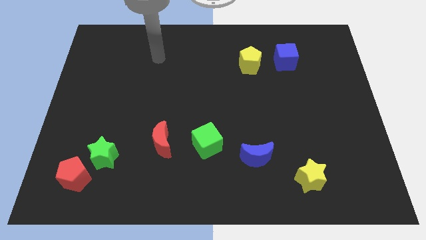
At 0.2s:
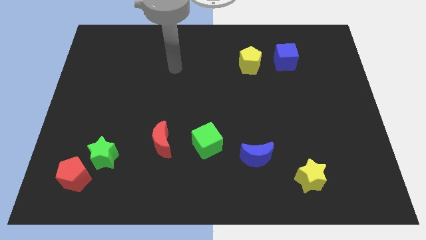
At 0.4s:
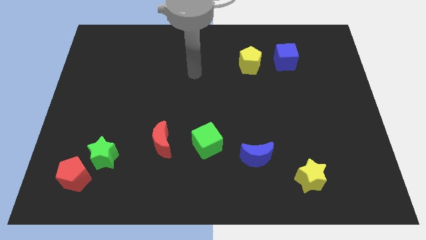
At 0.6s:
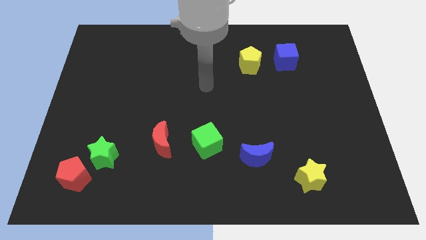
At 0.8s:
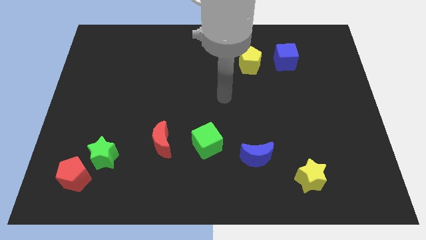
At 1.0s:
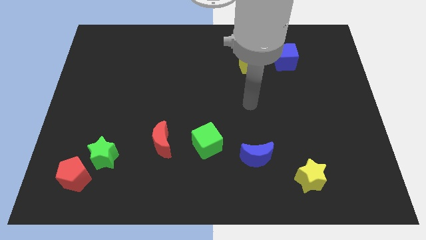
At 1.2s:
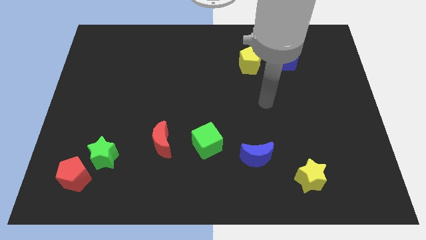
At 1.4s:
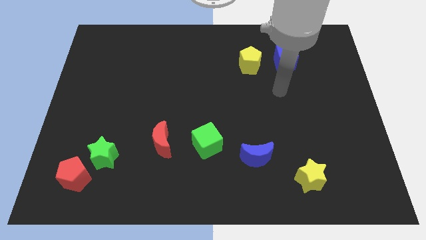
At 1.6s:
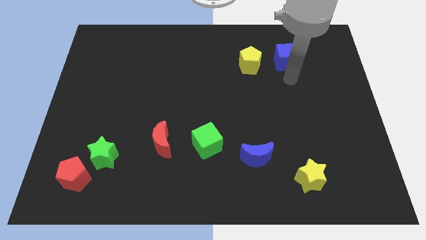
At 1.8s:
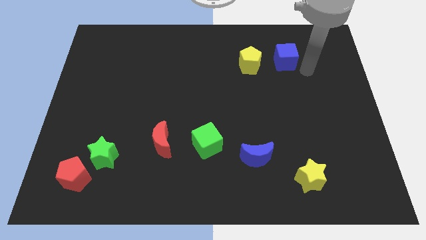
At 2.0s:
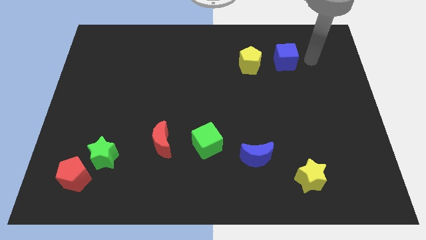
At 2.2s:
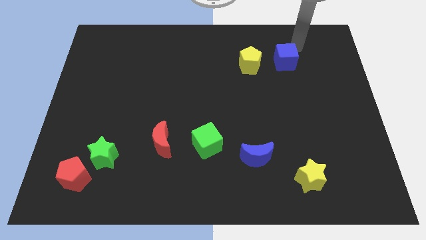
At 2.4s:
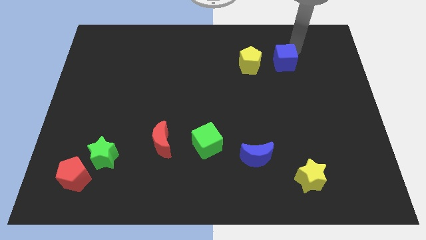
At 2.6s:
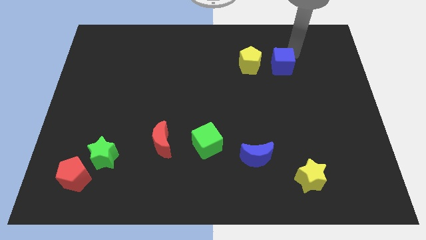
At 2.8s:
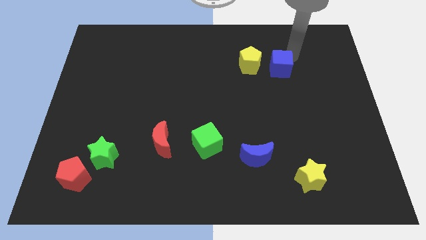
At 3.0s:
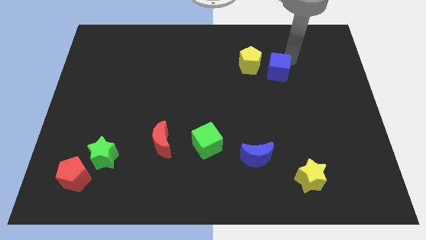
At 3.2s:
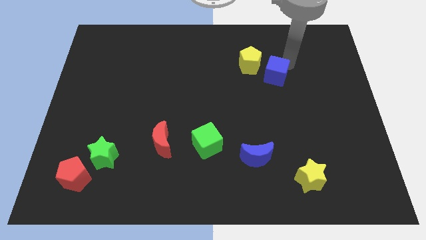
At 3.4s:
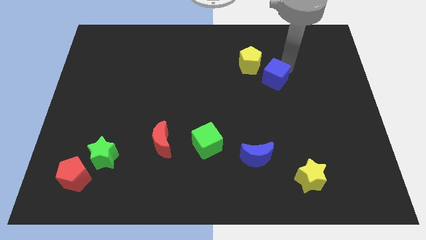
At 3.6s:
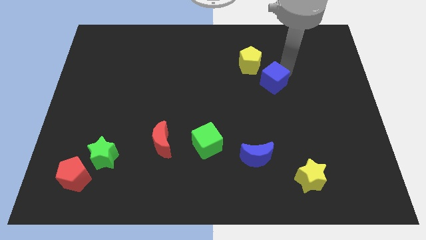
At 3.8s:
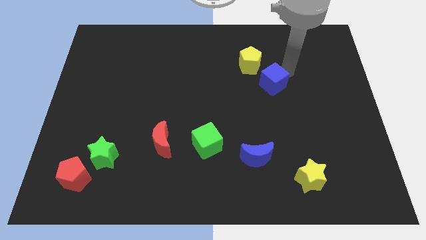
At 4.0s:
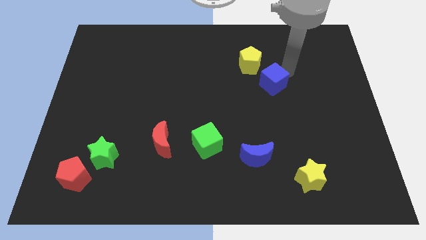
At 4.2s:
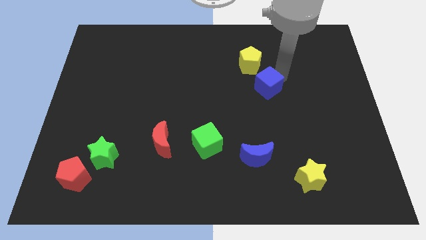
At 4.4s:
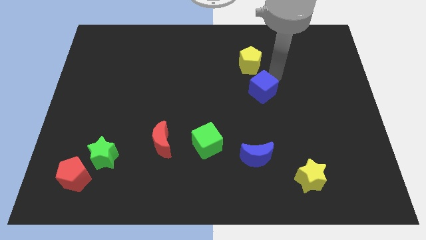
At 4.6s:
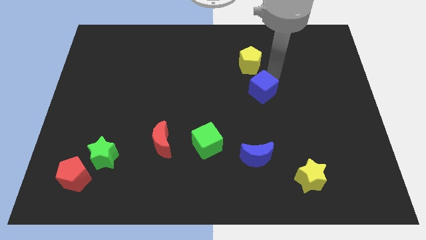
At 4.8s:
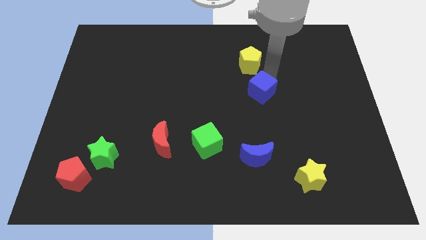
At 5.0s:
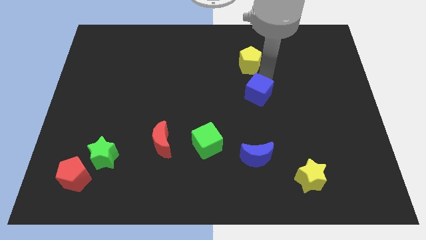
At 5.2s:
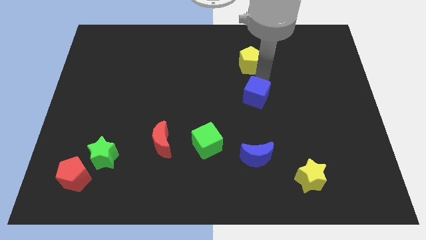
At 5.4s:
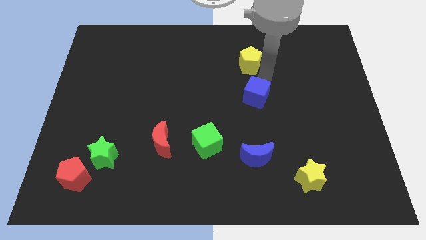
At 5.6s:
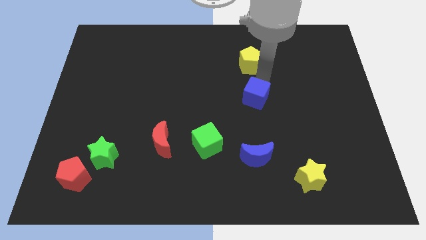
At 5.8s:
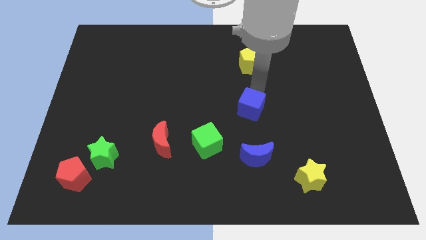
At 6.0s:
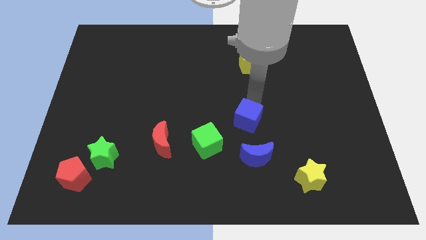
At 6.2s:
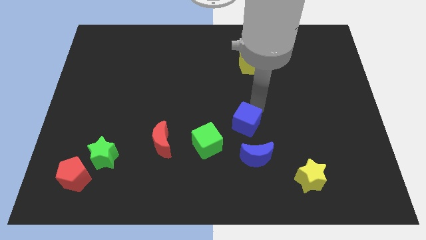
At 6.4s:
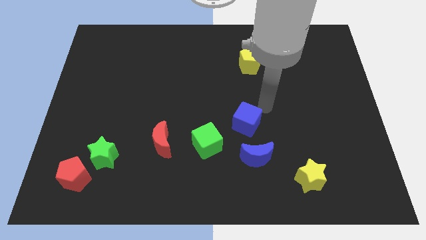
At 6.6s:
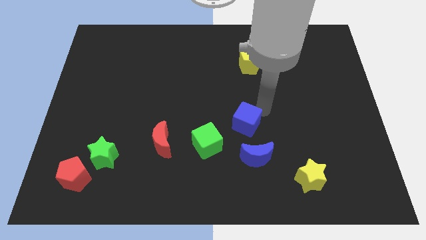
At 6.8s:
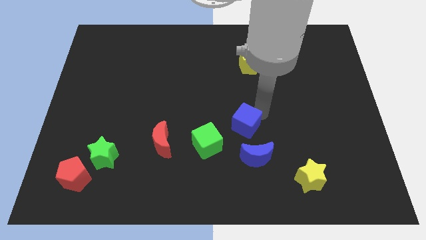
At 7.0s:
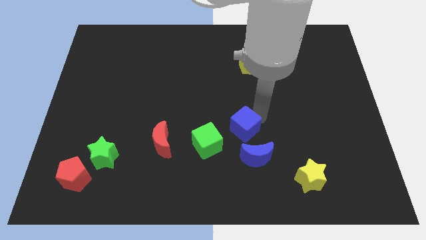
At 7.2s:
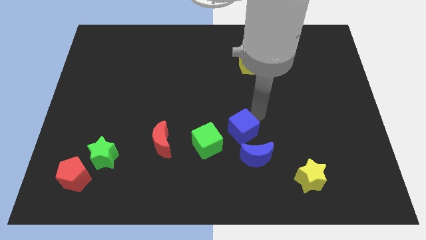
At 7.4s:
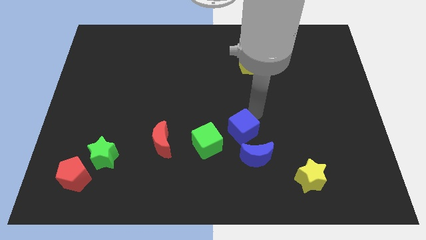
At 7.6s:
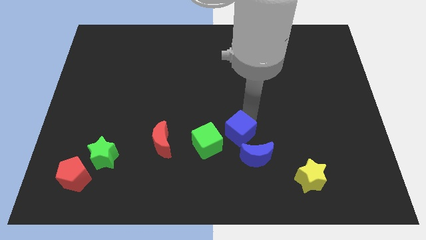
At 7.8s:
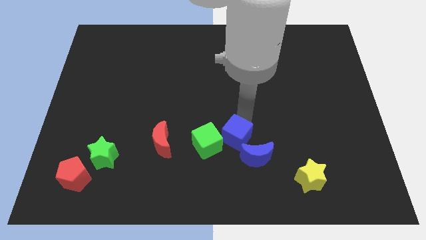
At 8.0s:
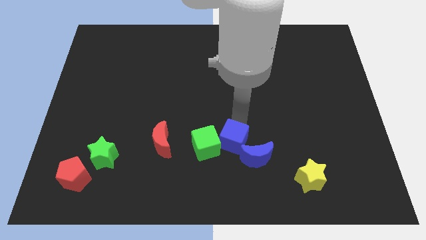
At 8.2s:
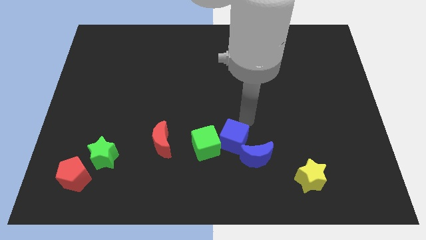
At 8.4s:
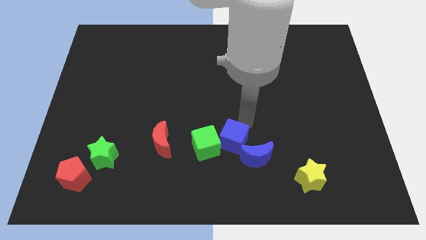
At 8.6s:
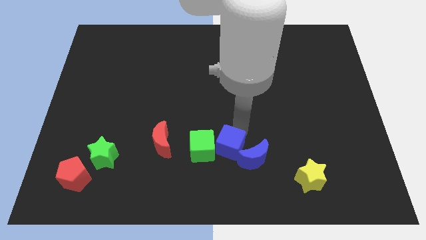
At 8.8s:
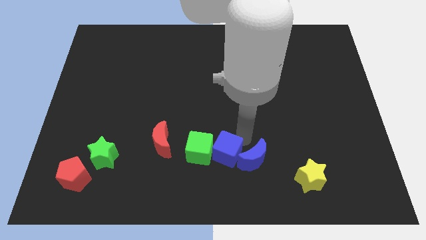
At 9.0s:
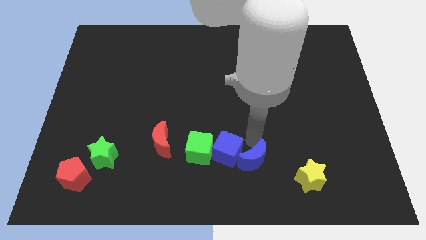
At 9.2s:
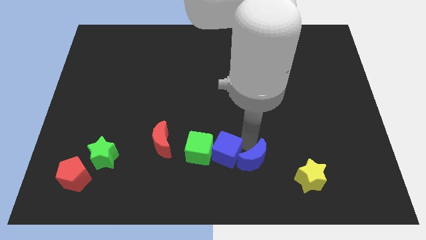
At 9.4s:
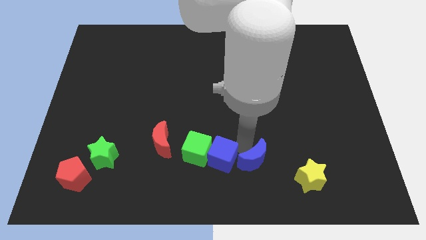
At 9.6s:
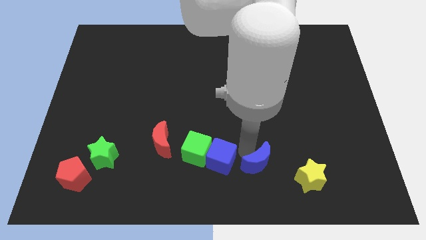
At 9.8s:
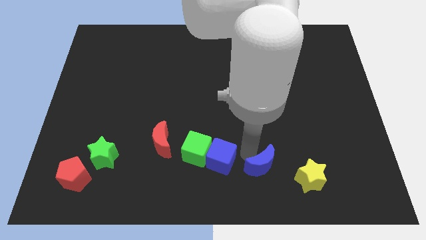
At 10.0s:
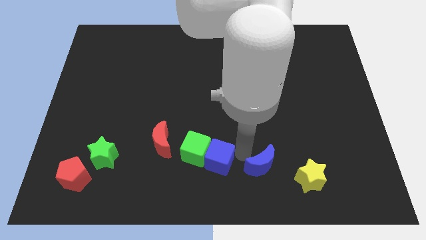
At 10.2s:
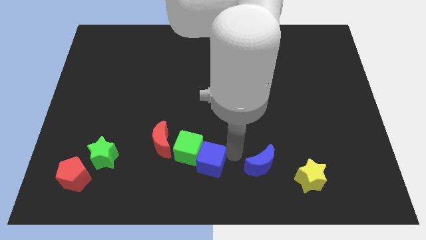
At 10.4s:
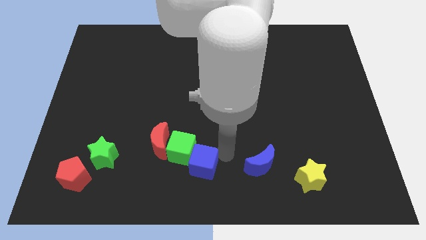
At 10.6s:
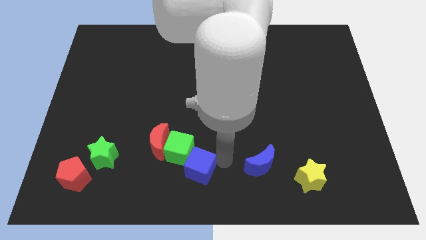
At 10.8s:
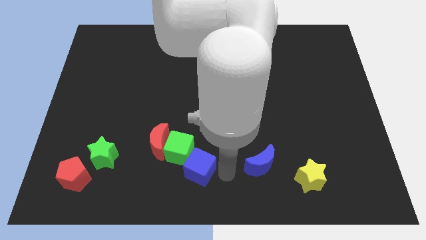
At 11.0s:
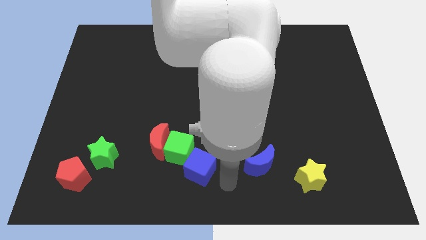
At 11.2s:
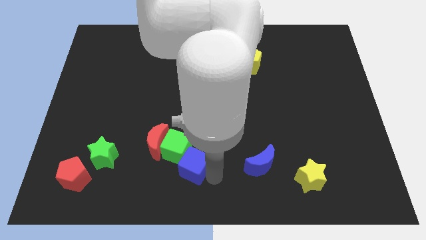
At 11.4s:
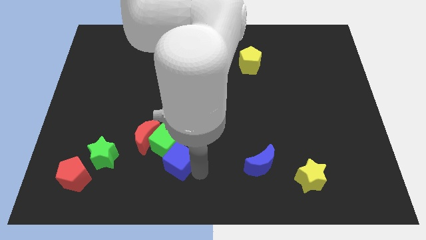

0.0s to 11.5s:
slide the blue cube to the right of the green star

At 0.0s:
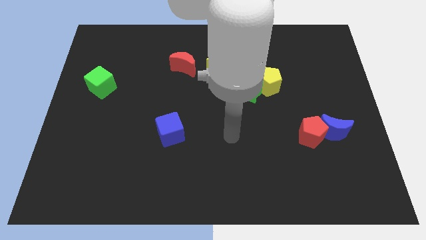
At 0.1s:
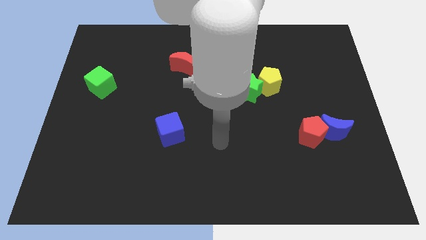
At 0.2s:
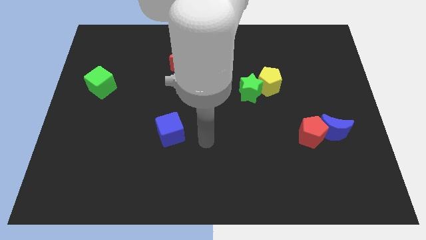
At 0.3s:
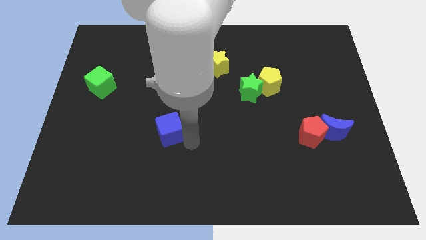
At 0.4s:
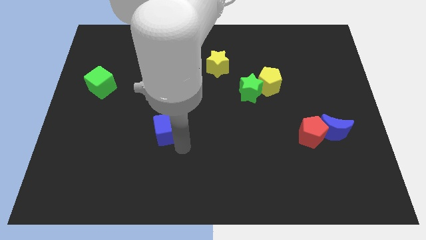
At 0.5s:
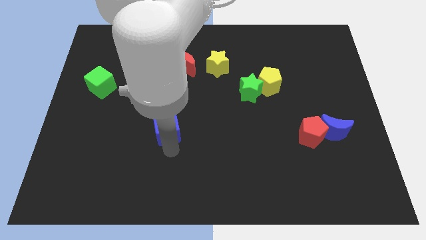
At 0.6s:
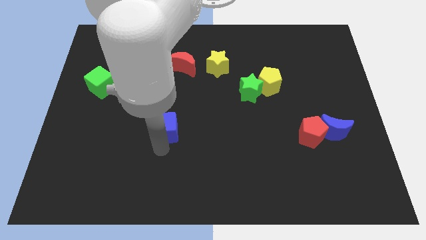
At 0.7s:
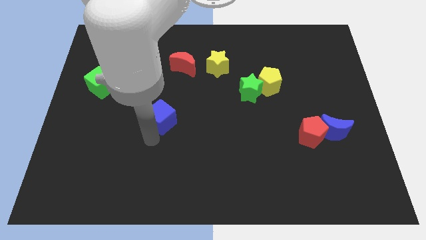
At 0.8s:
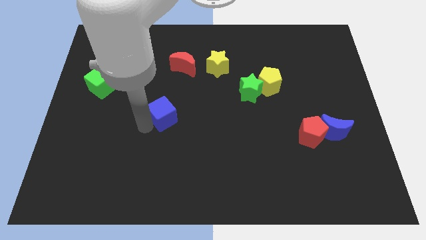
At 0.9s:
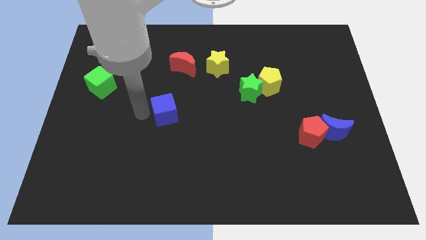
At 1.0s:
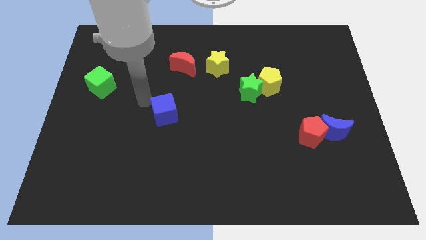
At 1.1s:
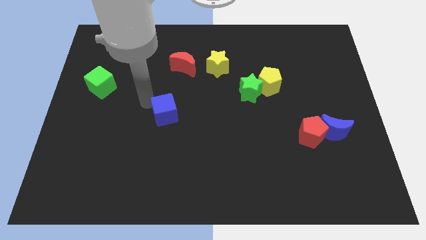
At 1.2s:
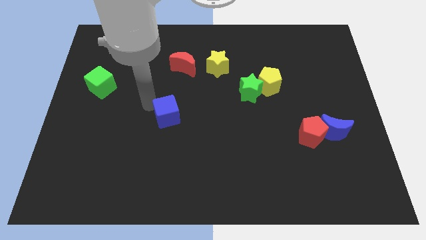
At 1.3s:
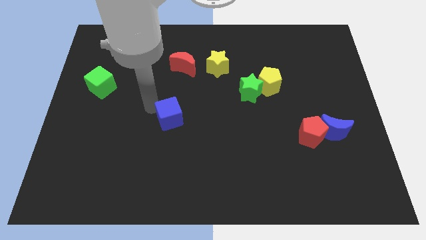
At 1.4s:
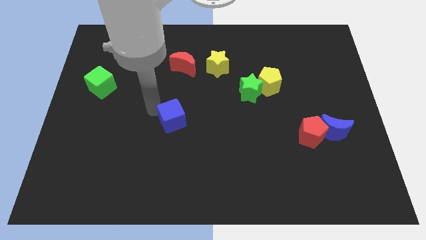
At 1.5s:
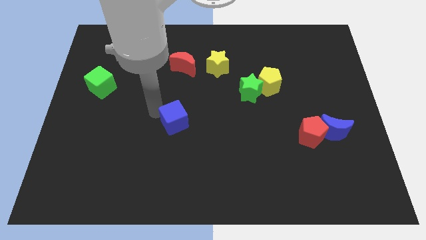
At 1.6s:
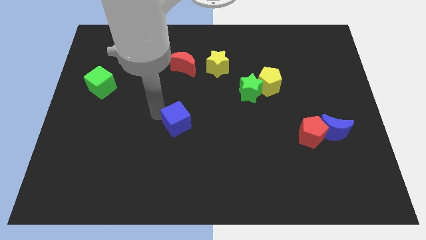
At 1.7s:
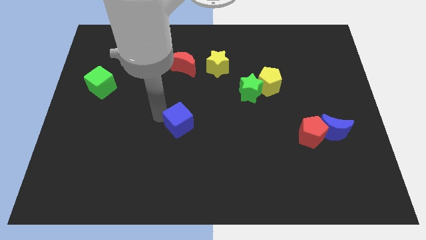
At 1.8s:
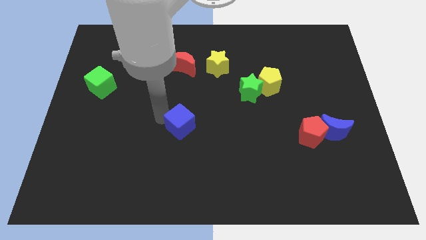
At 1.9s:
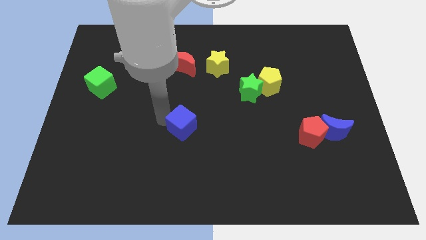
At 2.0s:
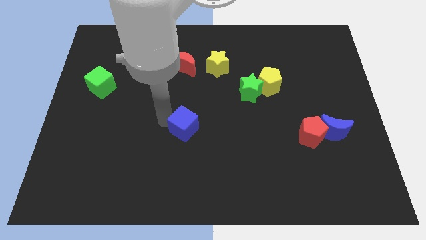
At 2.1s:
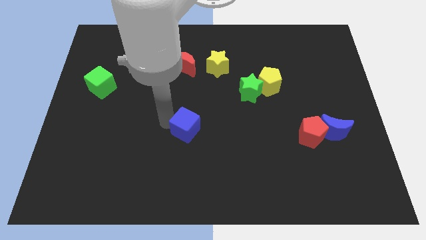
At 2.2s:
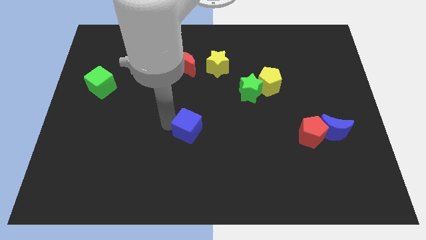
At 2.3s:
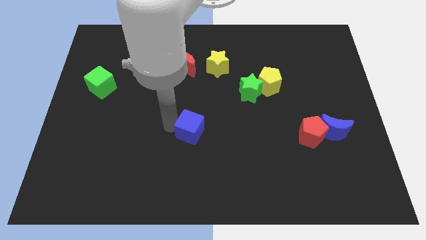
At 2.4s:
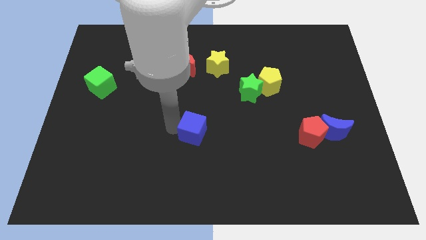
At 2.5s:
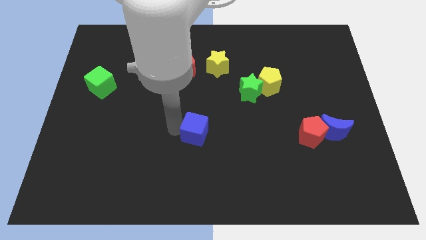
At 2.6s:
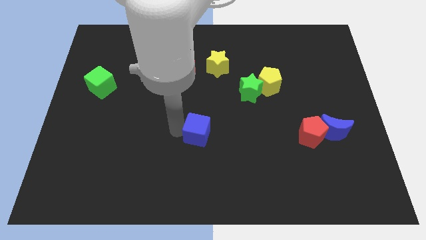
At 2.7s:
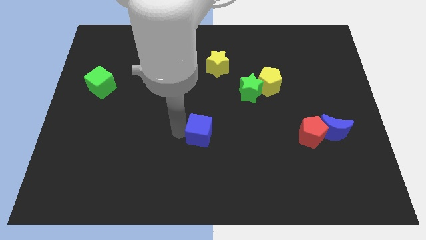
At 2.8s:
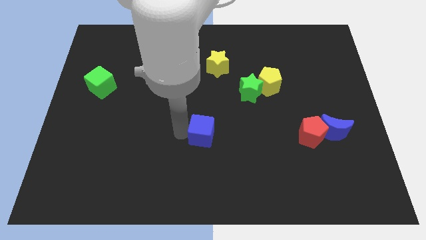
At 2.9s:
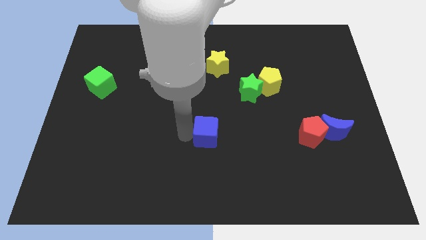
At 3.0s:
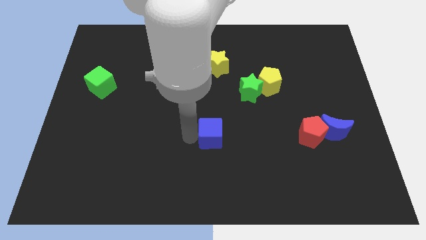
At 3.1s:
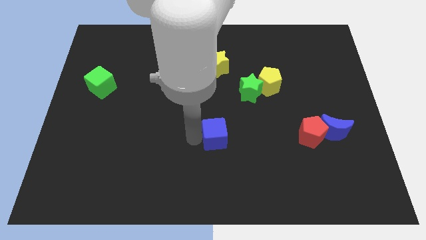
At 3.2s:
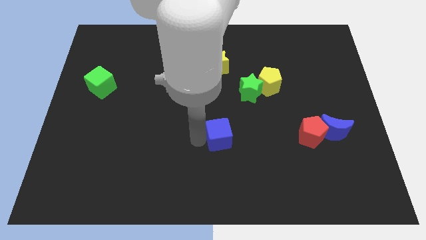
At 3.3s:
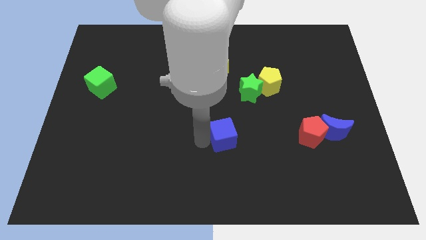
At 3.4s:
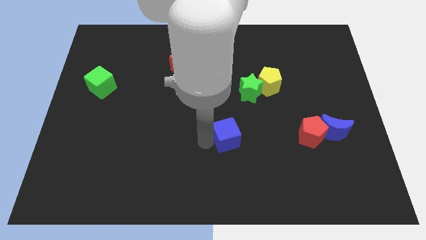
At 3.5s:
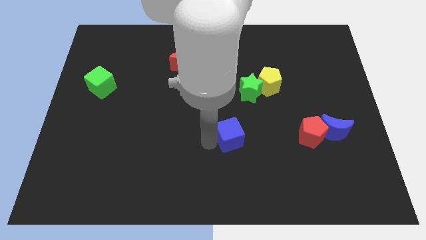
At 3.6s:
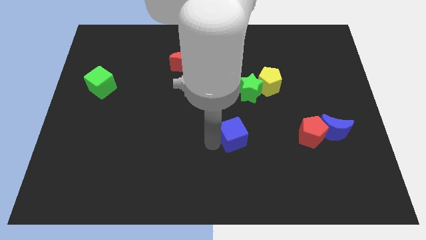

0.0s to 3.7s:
push the blue cube to the bottom side of the green star
